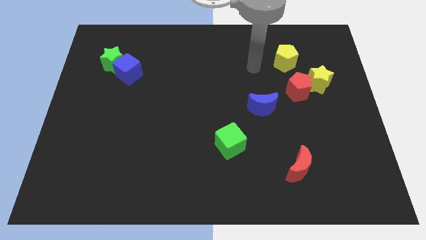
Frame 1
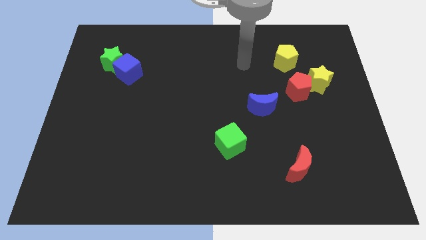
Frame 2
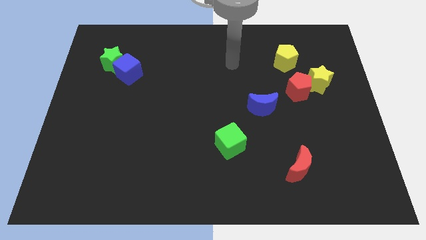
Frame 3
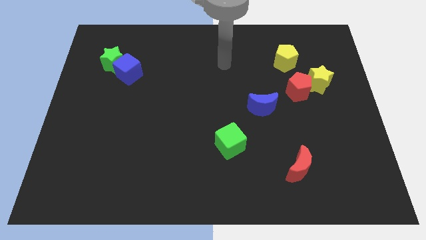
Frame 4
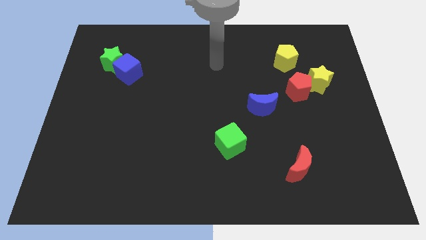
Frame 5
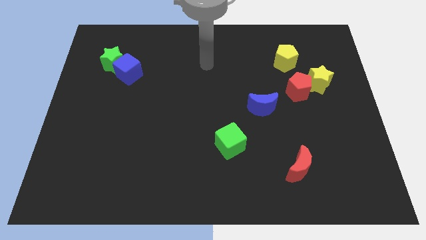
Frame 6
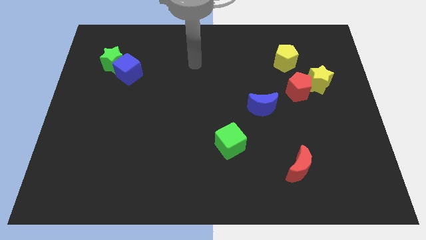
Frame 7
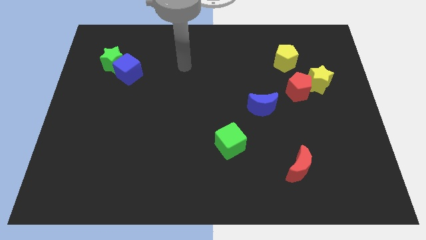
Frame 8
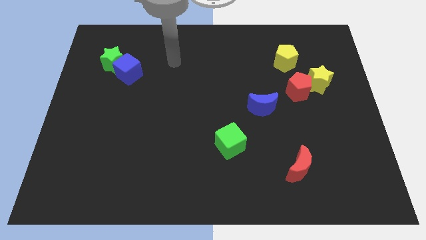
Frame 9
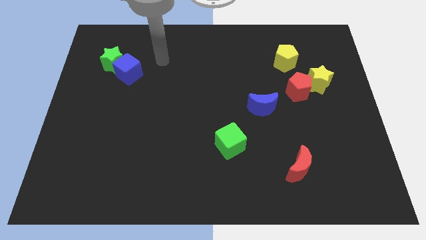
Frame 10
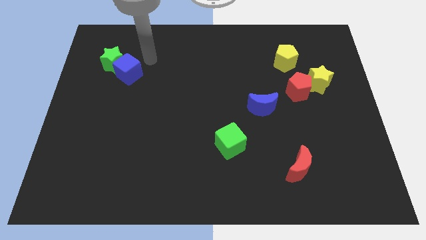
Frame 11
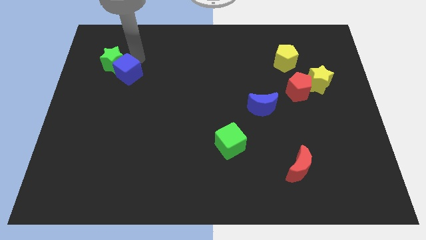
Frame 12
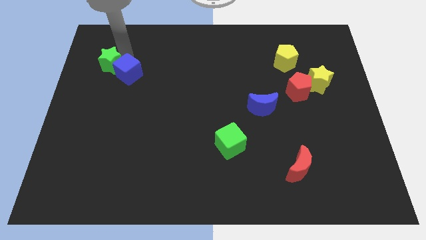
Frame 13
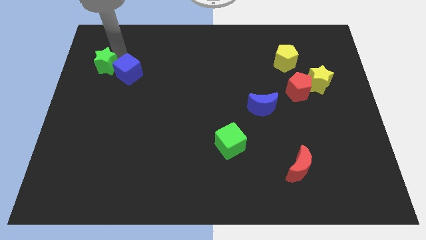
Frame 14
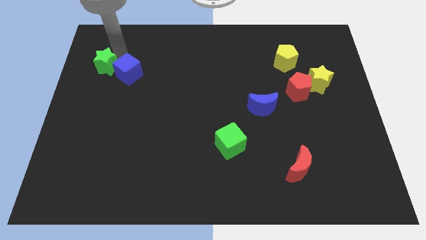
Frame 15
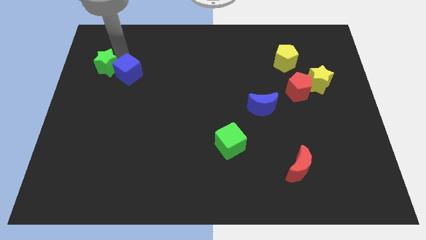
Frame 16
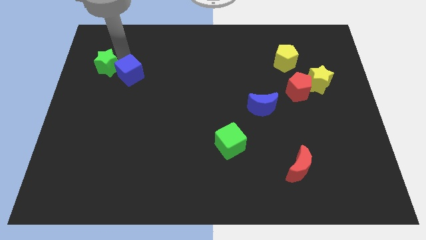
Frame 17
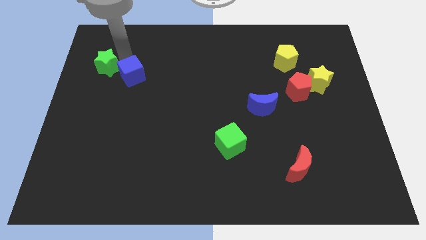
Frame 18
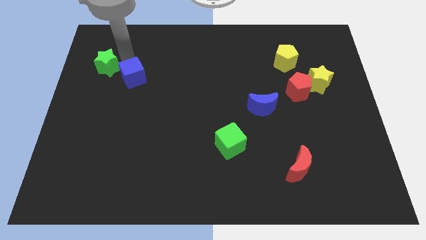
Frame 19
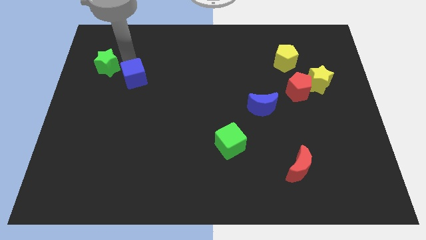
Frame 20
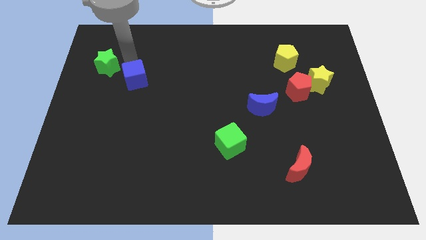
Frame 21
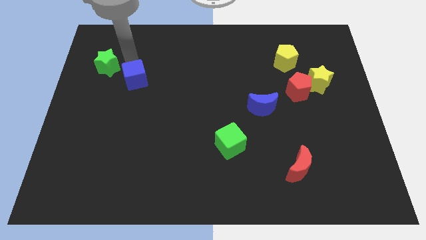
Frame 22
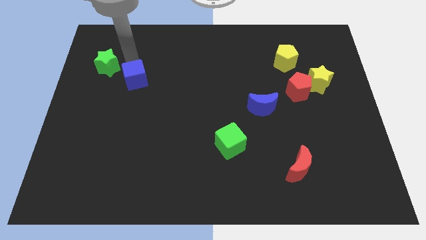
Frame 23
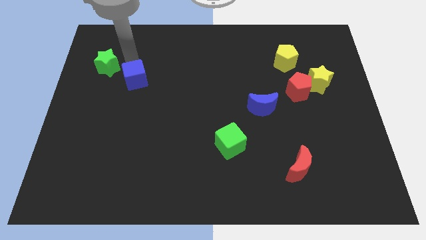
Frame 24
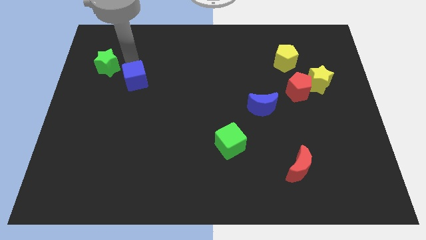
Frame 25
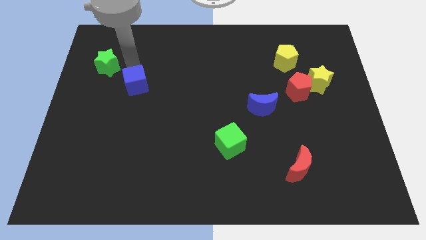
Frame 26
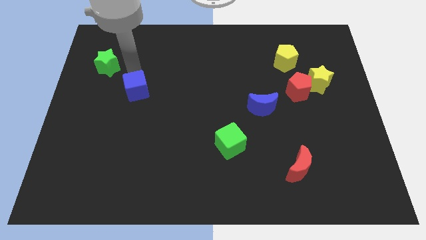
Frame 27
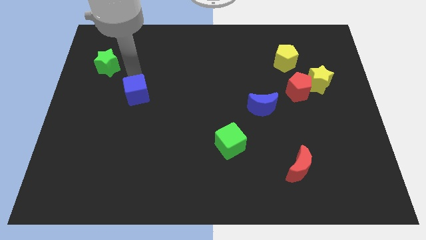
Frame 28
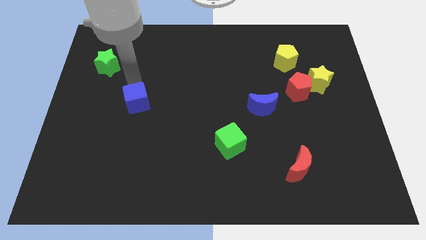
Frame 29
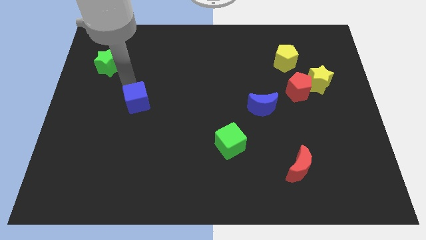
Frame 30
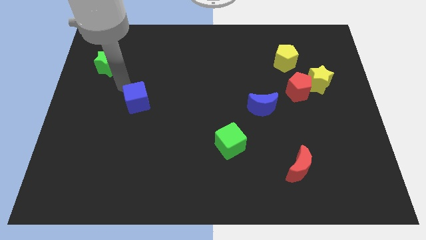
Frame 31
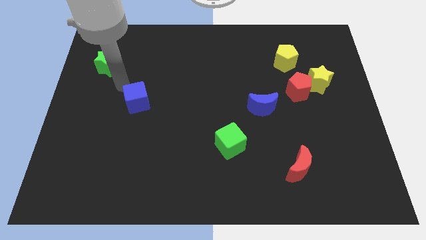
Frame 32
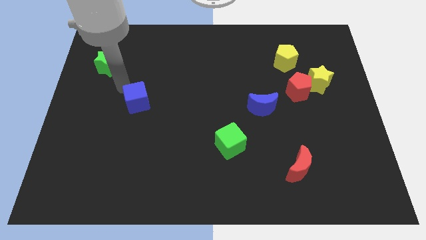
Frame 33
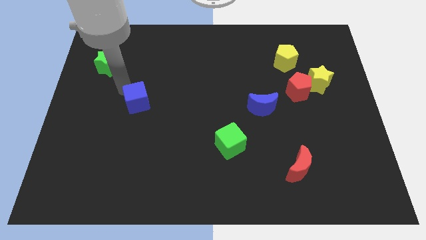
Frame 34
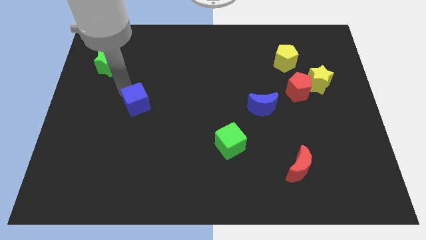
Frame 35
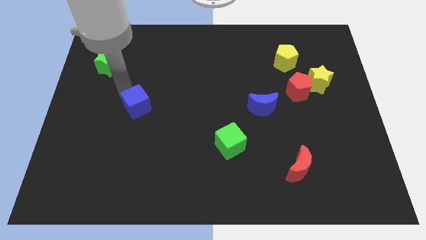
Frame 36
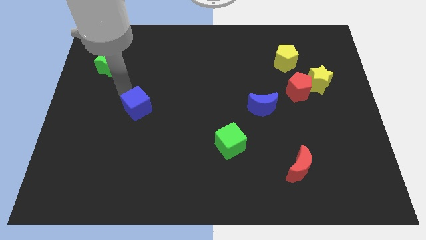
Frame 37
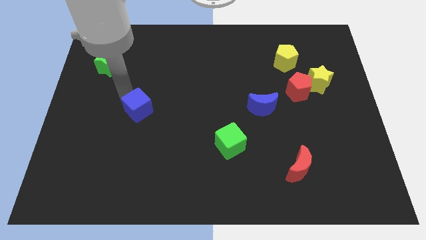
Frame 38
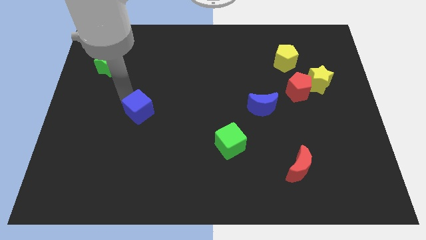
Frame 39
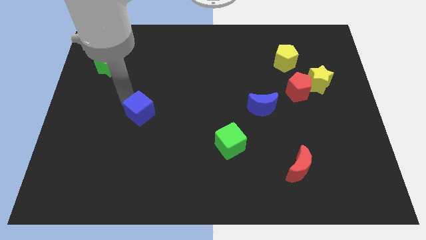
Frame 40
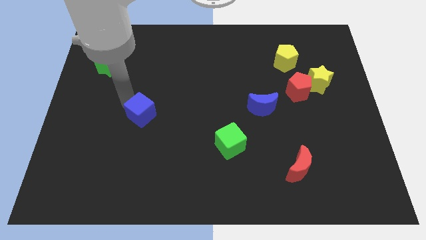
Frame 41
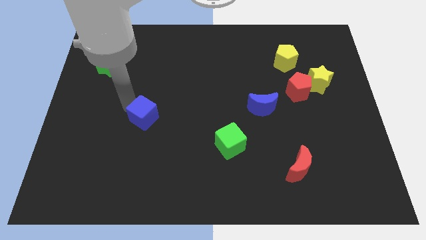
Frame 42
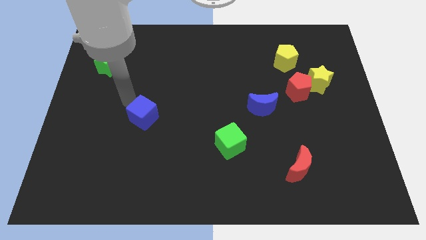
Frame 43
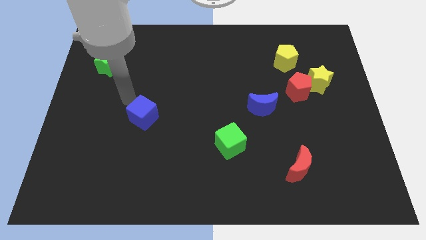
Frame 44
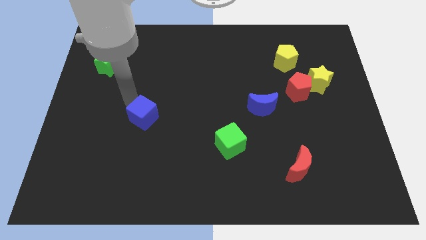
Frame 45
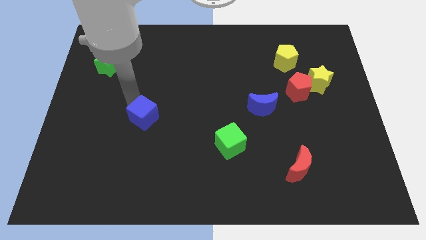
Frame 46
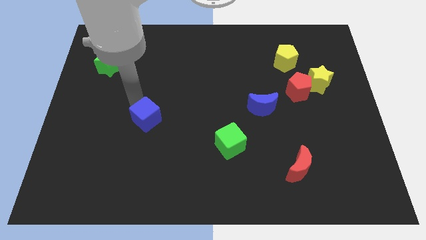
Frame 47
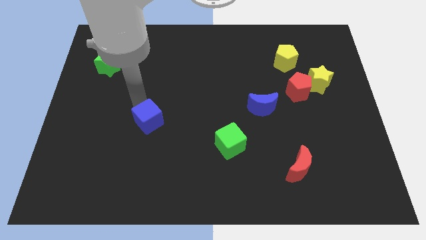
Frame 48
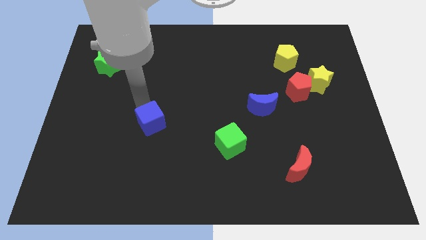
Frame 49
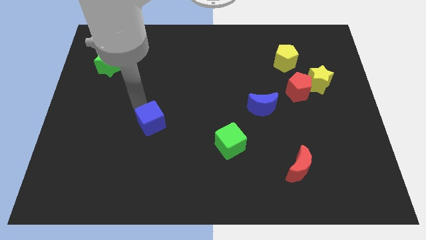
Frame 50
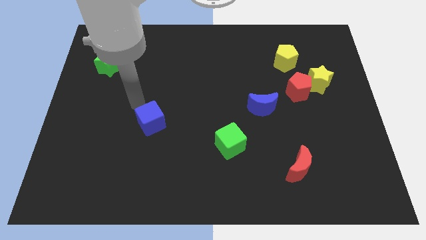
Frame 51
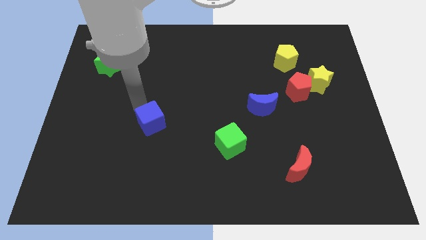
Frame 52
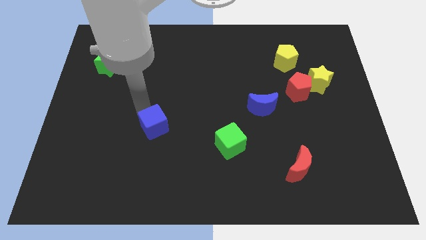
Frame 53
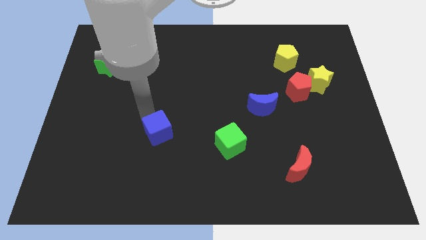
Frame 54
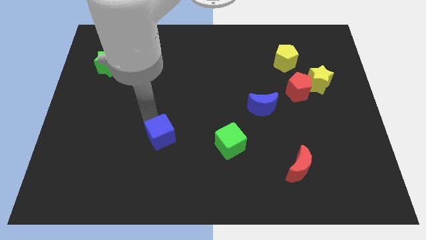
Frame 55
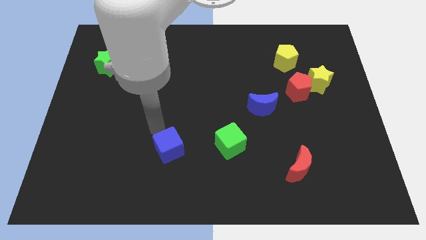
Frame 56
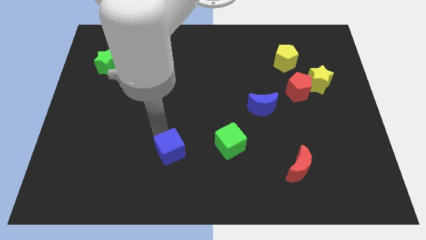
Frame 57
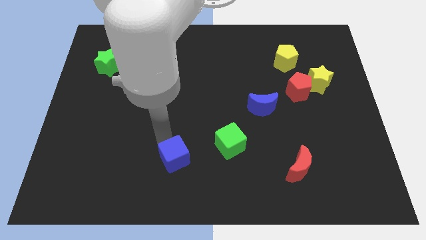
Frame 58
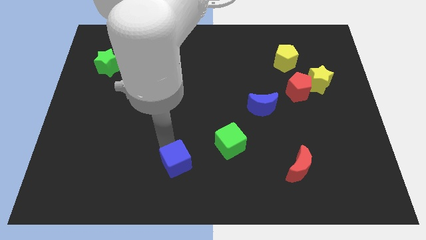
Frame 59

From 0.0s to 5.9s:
slide the blue cube to the bottom
